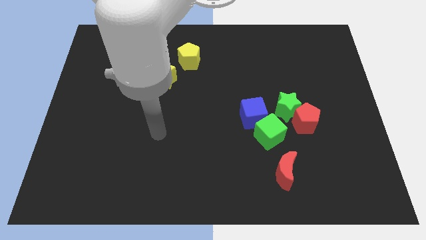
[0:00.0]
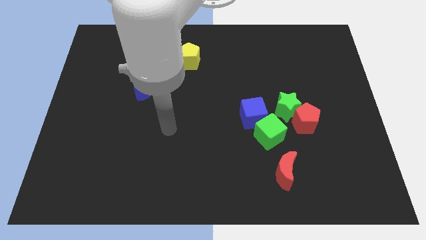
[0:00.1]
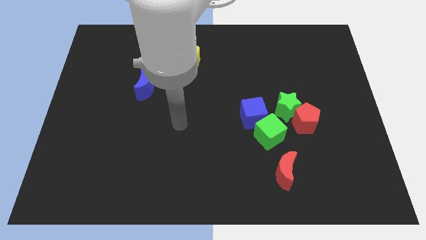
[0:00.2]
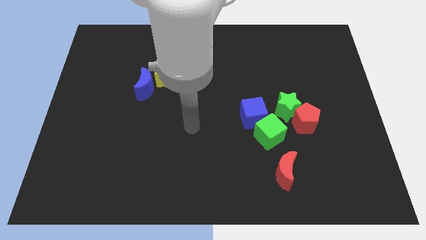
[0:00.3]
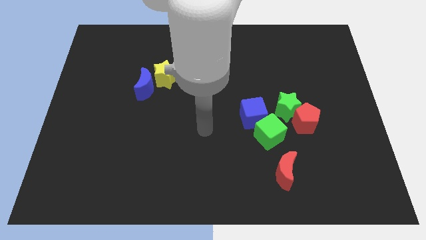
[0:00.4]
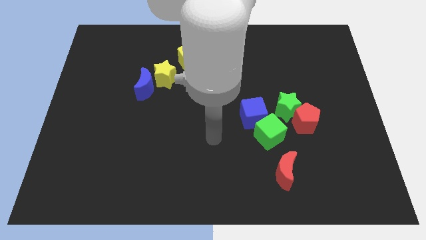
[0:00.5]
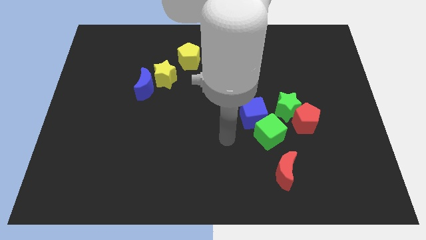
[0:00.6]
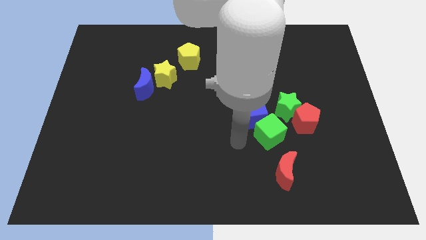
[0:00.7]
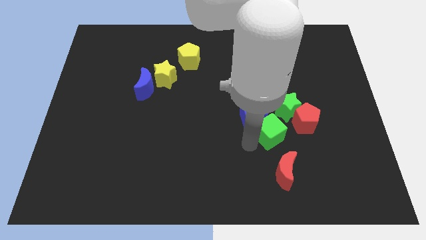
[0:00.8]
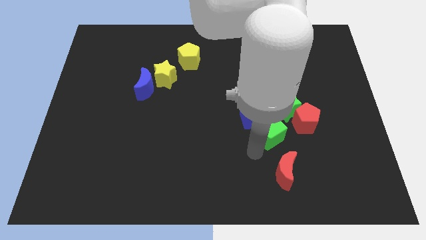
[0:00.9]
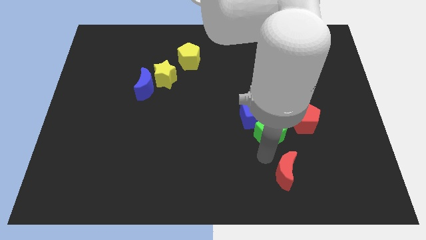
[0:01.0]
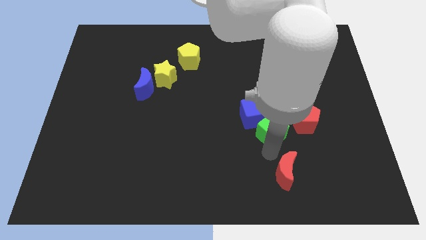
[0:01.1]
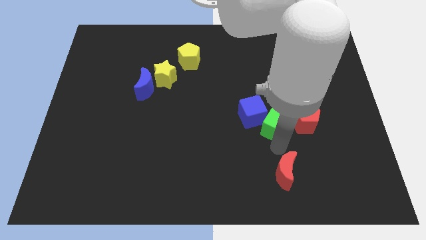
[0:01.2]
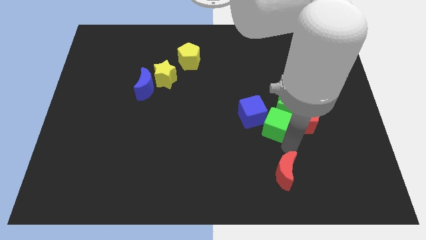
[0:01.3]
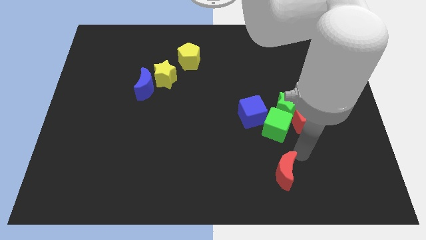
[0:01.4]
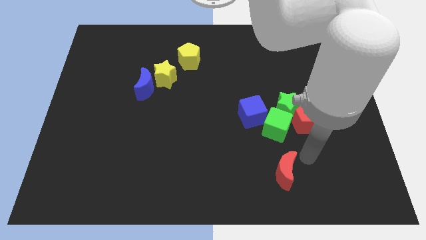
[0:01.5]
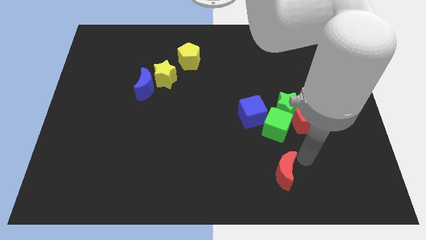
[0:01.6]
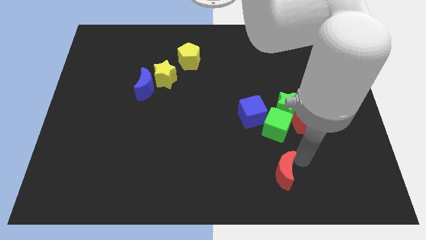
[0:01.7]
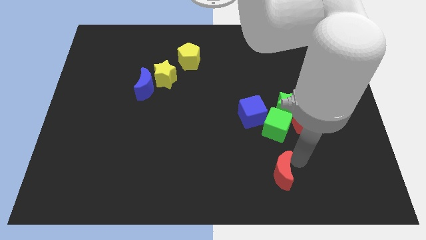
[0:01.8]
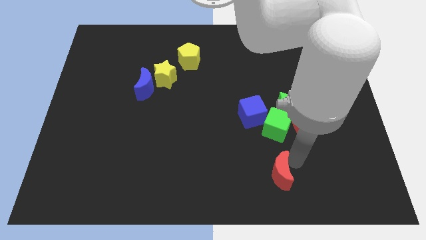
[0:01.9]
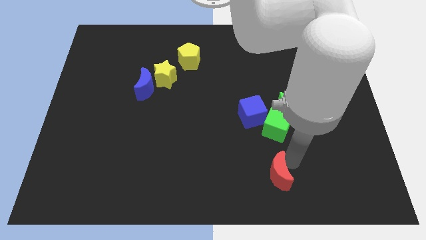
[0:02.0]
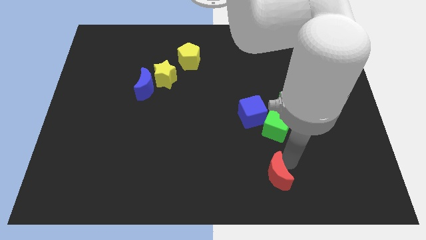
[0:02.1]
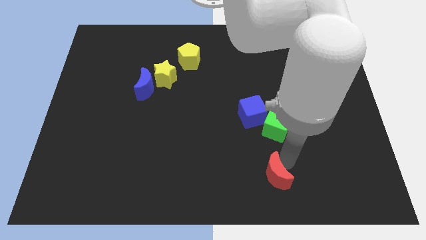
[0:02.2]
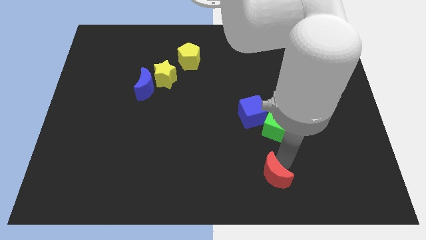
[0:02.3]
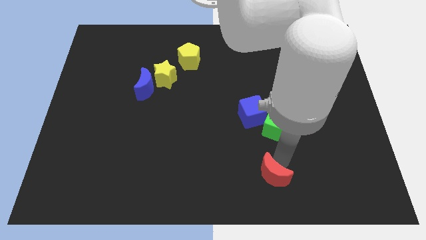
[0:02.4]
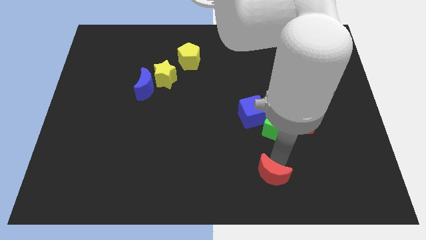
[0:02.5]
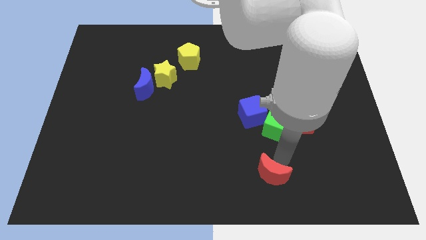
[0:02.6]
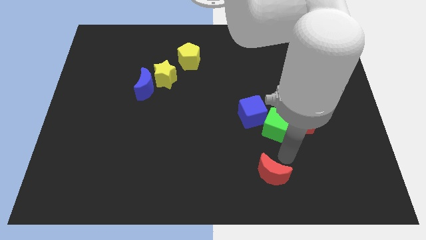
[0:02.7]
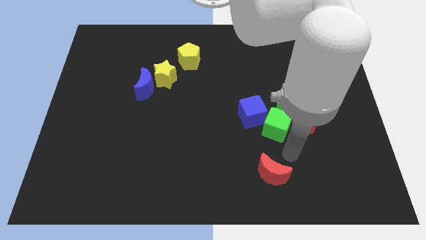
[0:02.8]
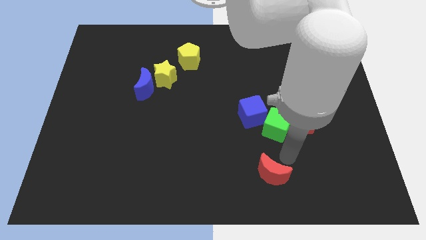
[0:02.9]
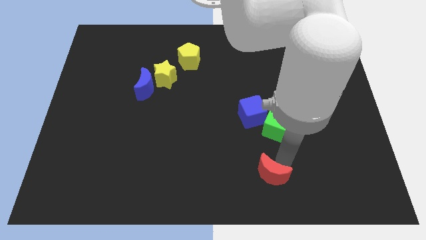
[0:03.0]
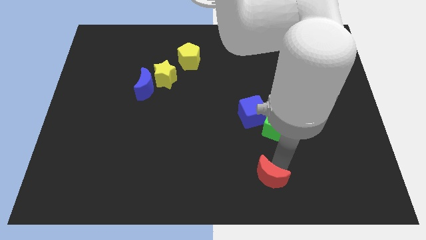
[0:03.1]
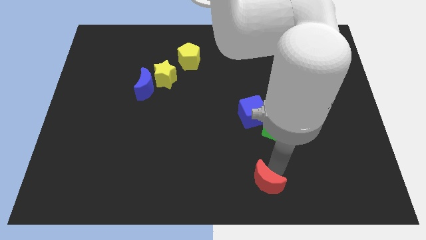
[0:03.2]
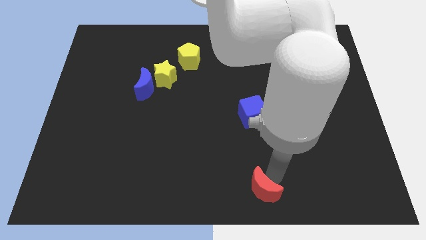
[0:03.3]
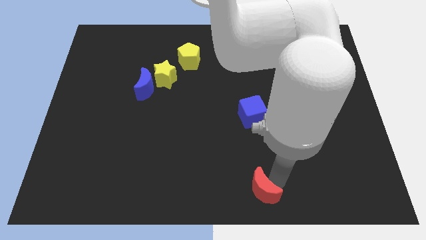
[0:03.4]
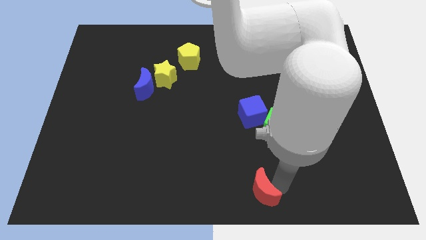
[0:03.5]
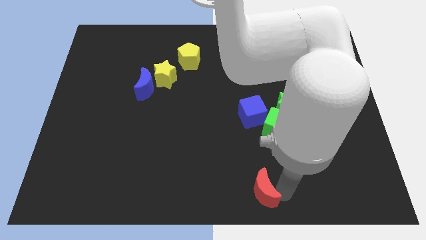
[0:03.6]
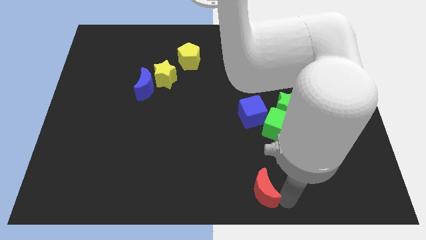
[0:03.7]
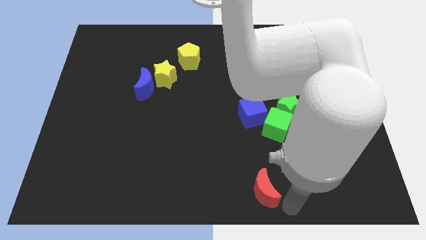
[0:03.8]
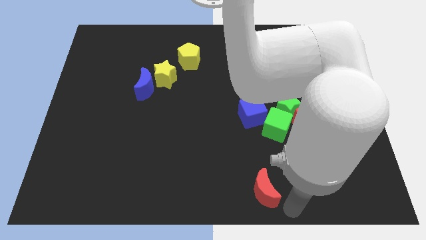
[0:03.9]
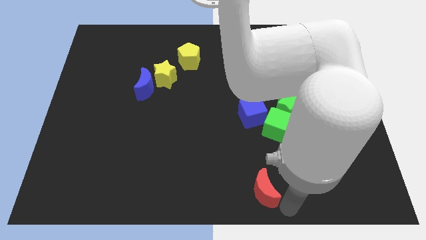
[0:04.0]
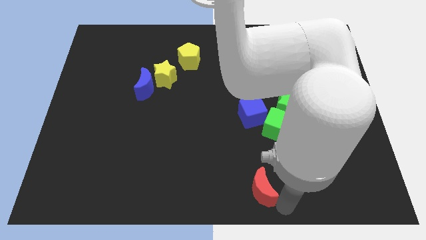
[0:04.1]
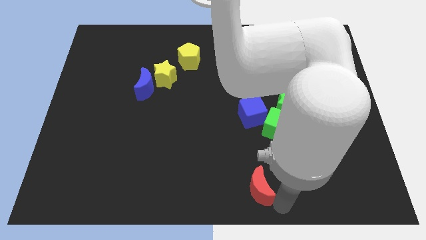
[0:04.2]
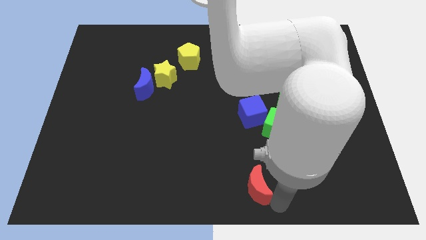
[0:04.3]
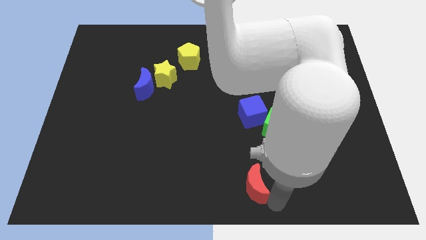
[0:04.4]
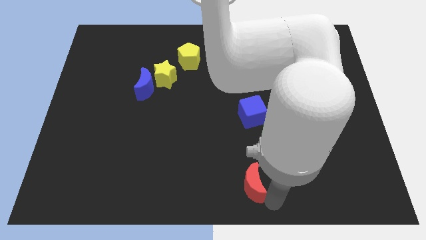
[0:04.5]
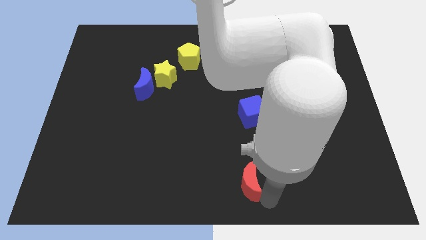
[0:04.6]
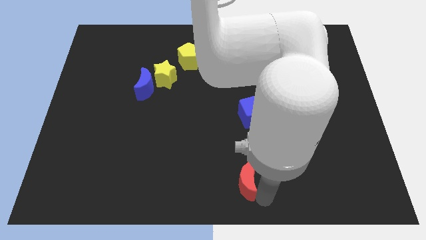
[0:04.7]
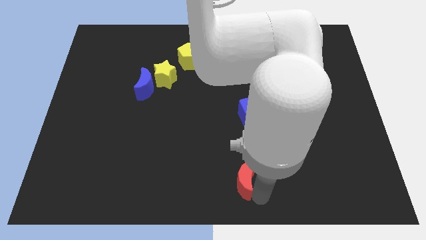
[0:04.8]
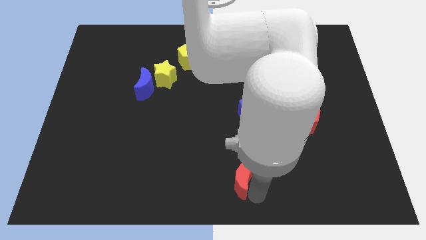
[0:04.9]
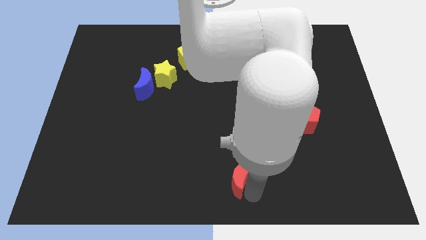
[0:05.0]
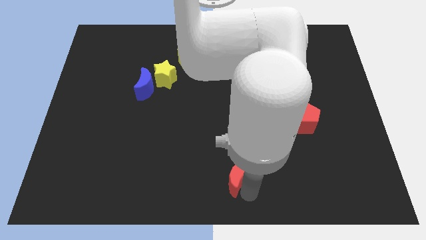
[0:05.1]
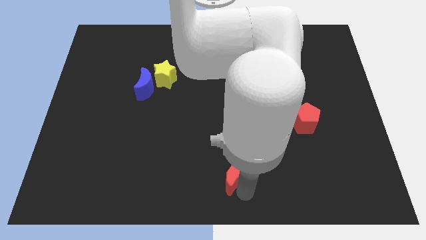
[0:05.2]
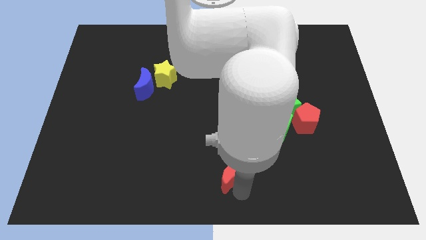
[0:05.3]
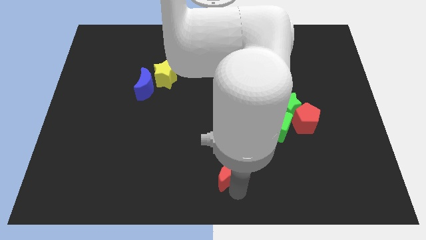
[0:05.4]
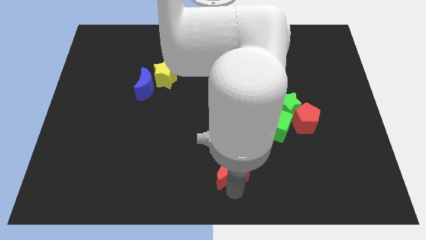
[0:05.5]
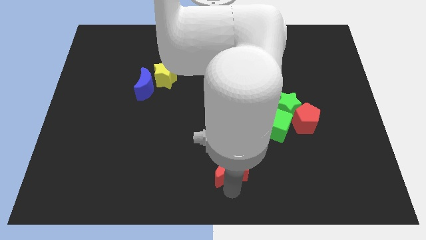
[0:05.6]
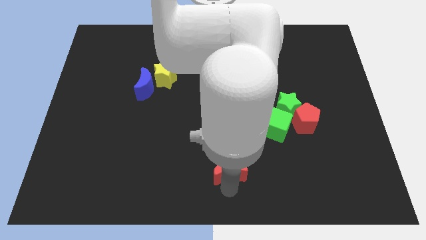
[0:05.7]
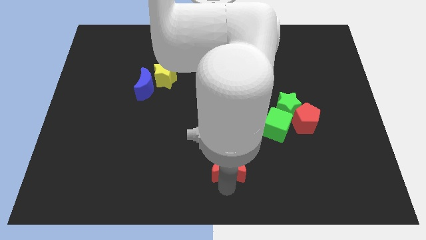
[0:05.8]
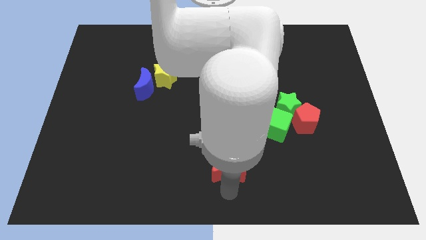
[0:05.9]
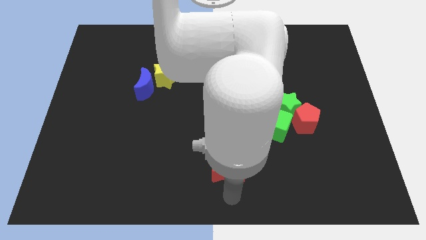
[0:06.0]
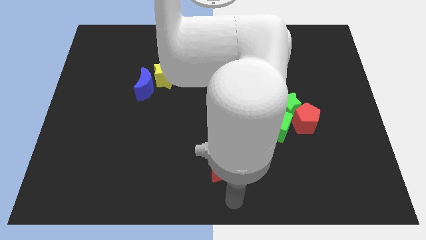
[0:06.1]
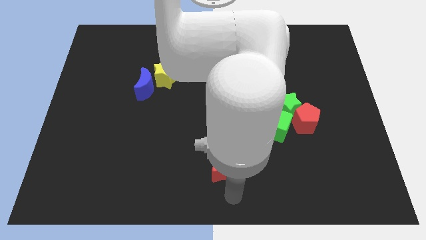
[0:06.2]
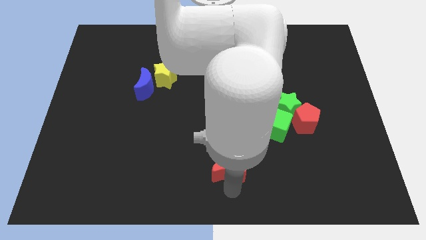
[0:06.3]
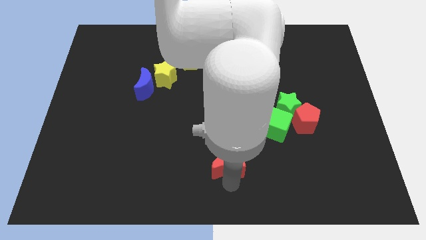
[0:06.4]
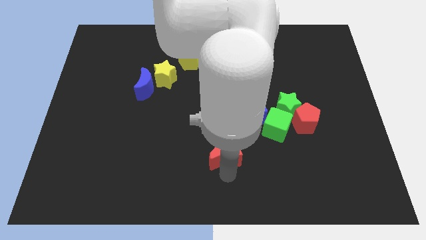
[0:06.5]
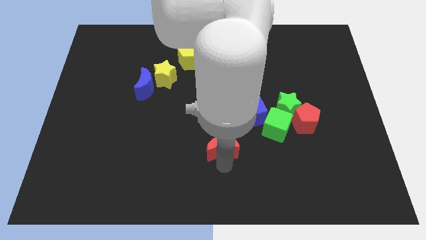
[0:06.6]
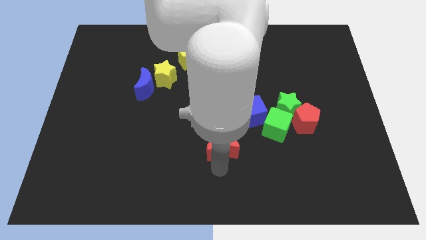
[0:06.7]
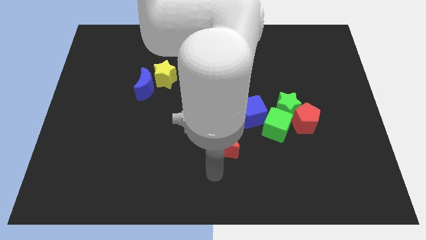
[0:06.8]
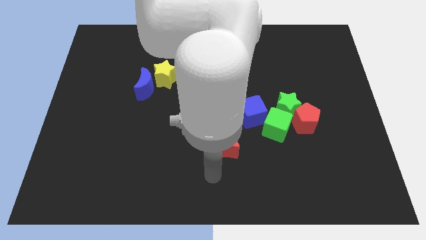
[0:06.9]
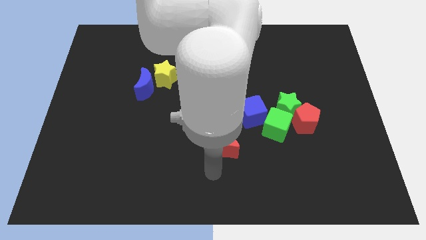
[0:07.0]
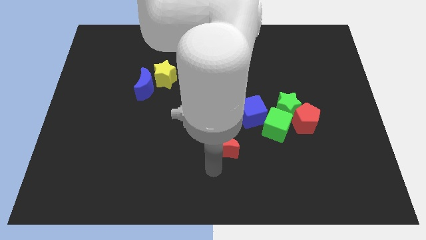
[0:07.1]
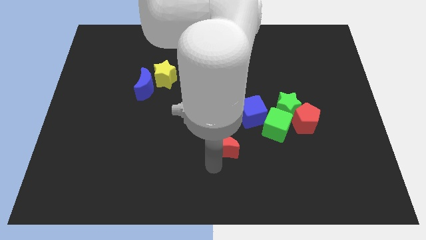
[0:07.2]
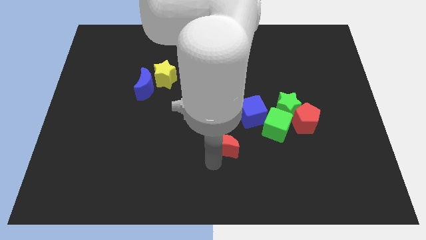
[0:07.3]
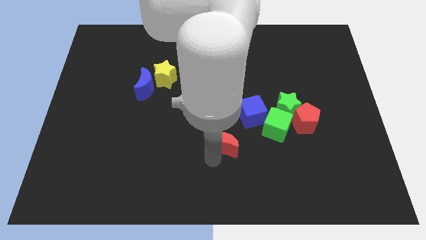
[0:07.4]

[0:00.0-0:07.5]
move the red moon to the left of the green cube
